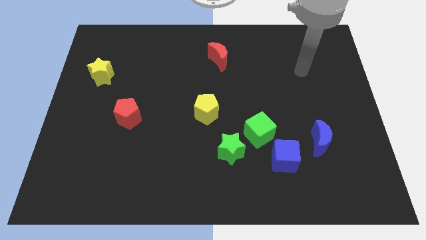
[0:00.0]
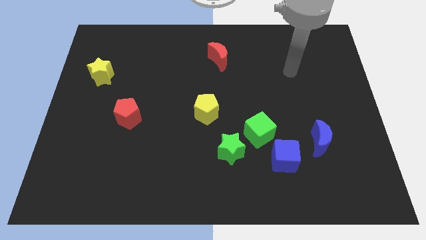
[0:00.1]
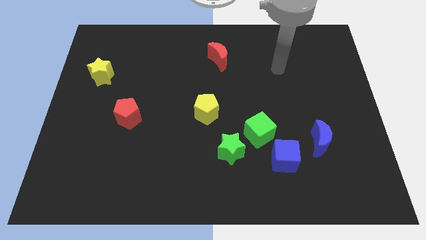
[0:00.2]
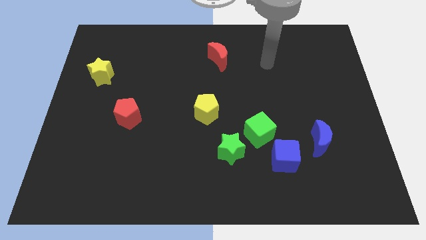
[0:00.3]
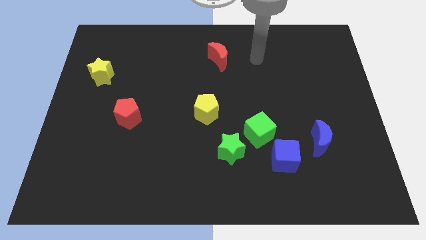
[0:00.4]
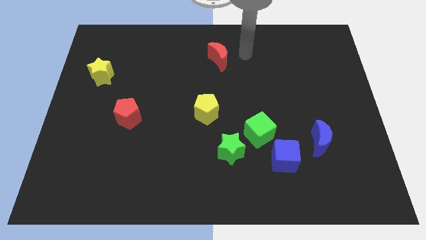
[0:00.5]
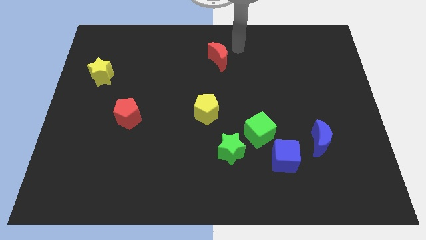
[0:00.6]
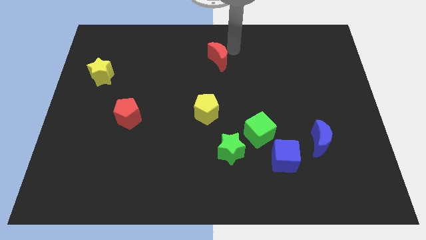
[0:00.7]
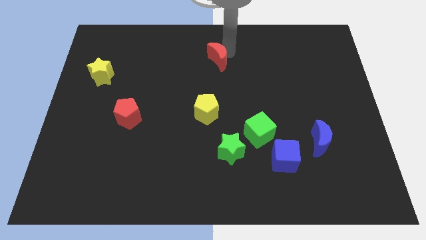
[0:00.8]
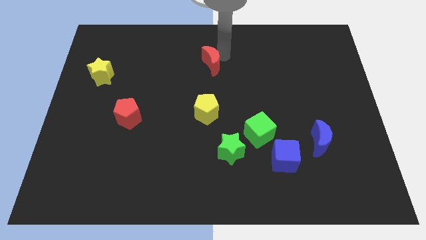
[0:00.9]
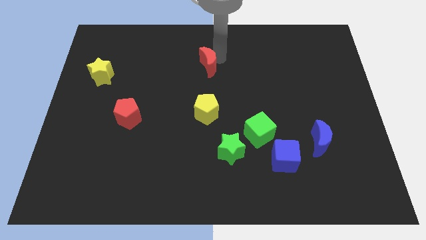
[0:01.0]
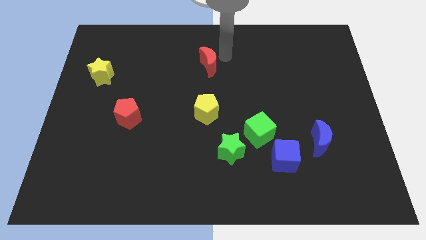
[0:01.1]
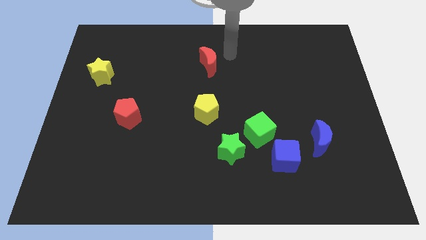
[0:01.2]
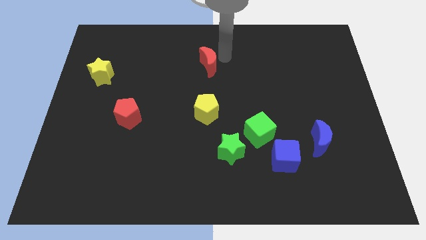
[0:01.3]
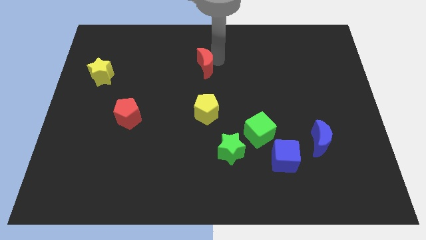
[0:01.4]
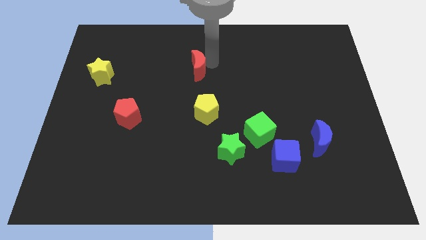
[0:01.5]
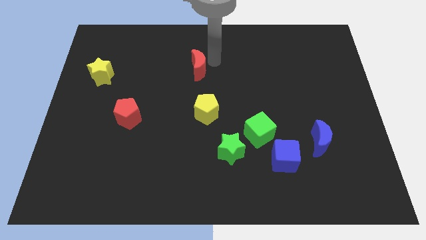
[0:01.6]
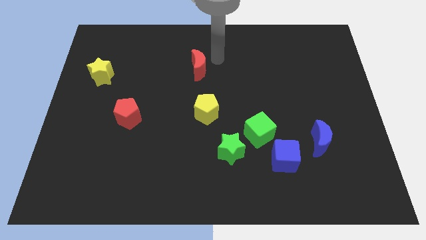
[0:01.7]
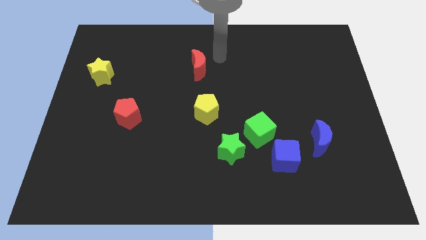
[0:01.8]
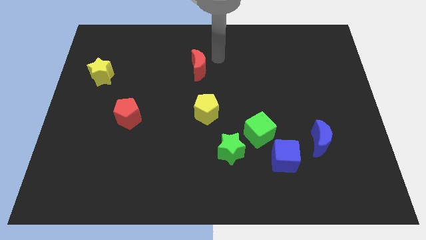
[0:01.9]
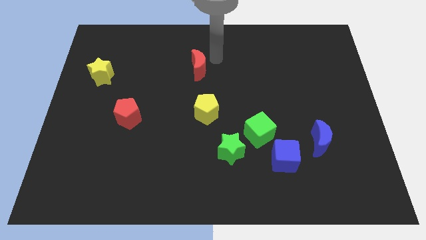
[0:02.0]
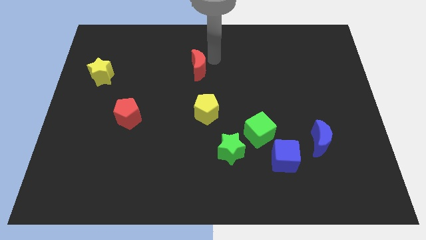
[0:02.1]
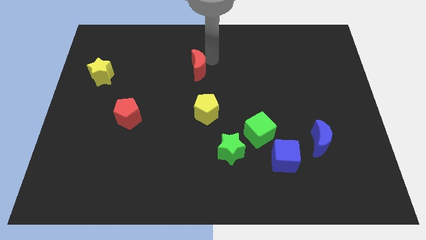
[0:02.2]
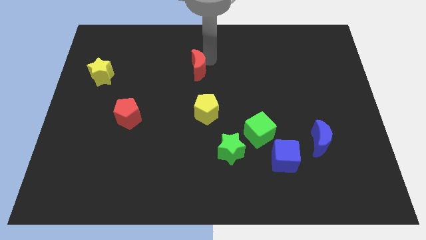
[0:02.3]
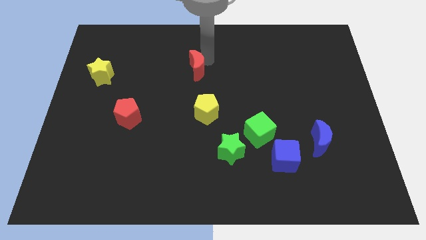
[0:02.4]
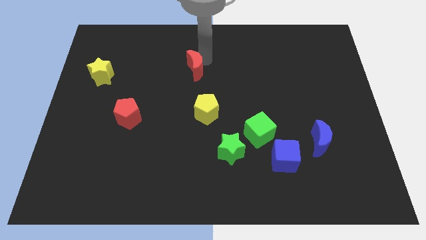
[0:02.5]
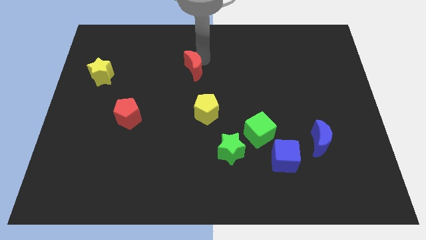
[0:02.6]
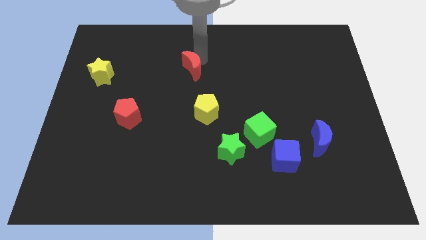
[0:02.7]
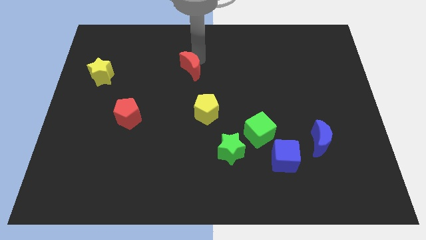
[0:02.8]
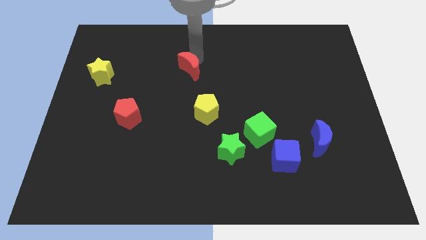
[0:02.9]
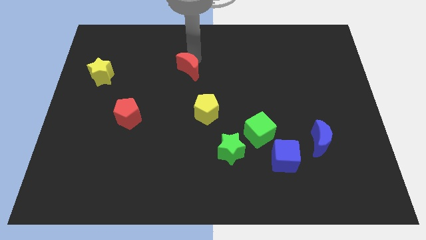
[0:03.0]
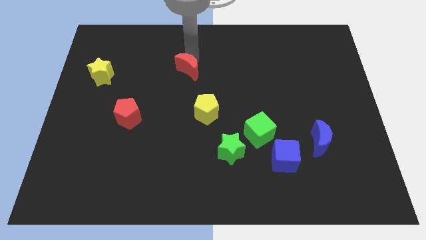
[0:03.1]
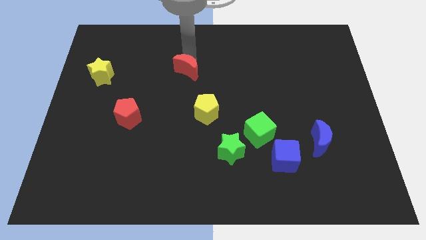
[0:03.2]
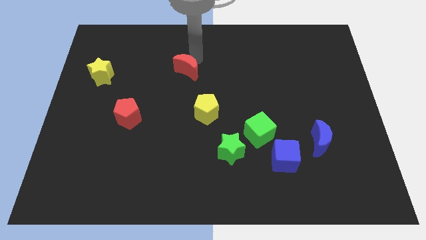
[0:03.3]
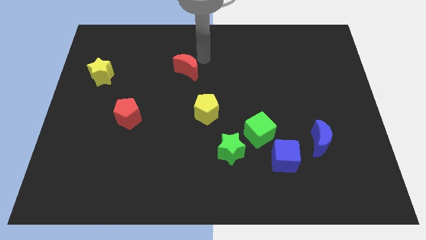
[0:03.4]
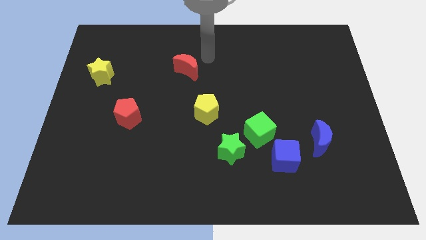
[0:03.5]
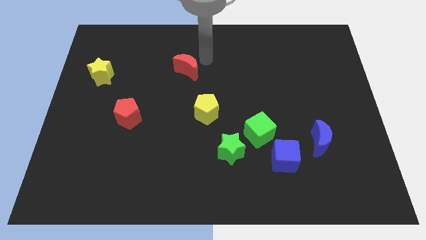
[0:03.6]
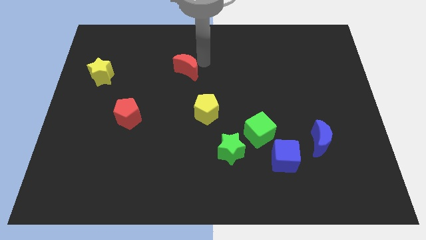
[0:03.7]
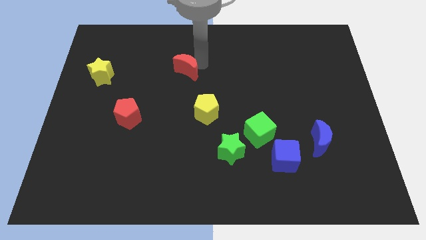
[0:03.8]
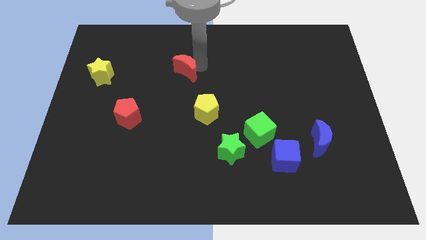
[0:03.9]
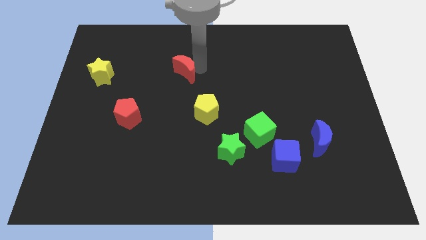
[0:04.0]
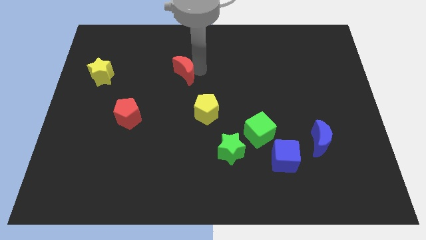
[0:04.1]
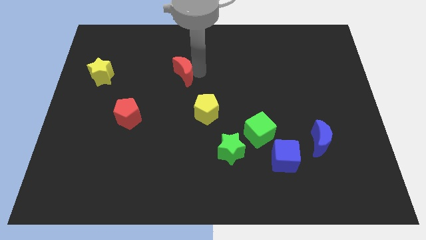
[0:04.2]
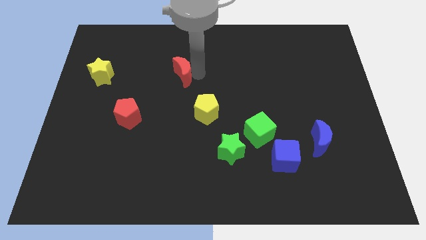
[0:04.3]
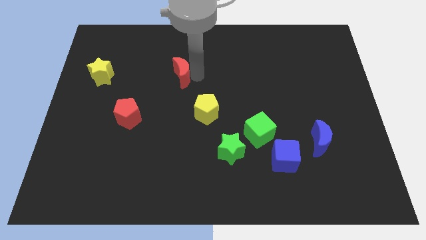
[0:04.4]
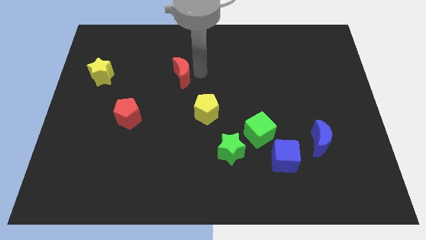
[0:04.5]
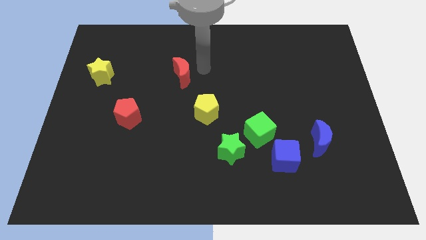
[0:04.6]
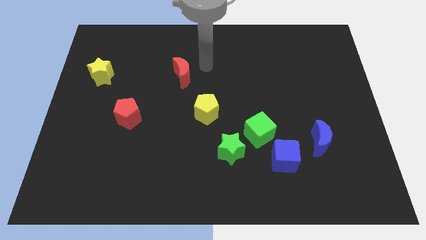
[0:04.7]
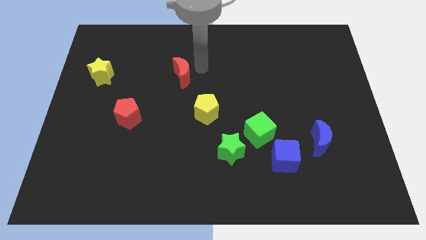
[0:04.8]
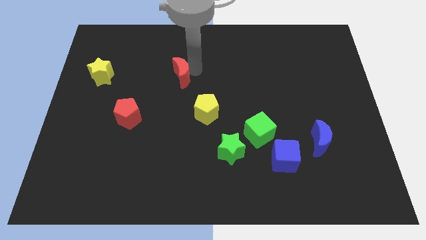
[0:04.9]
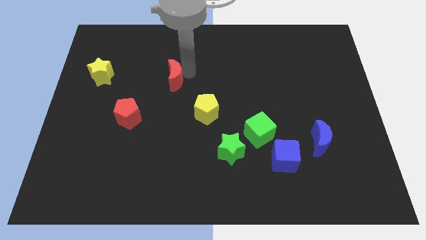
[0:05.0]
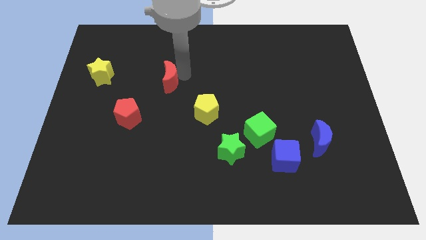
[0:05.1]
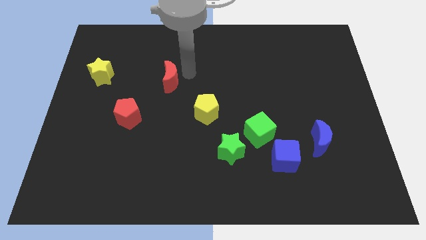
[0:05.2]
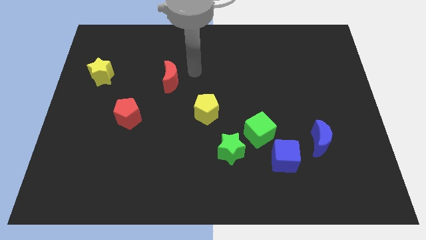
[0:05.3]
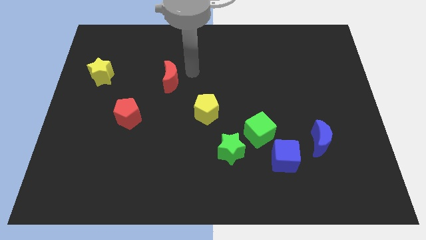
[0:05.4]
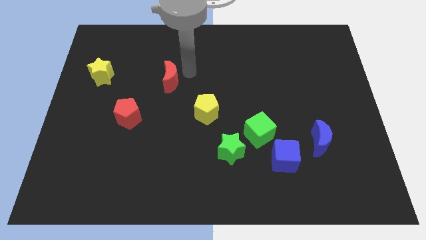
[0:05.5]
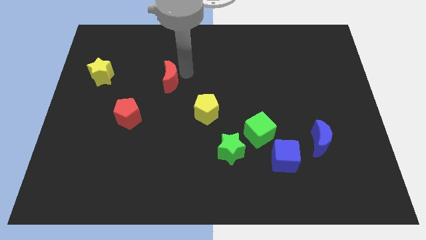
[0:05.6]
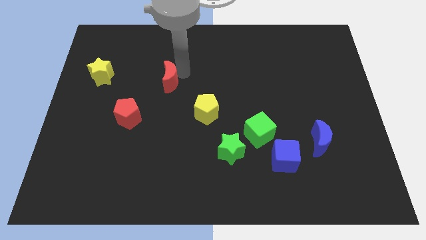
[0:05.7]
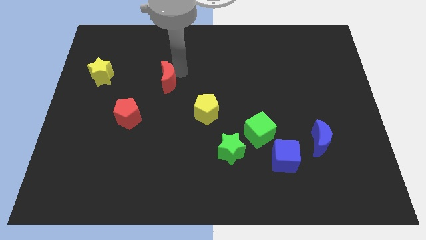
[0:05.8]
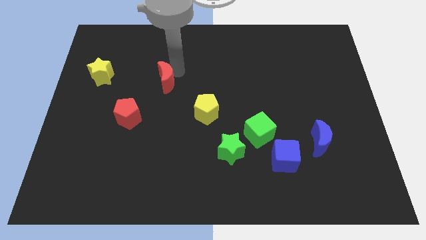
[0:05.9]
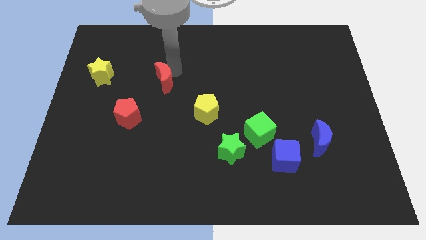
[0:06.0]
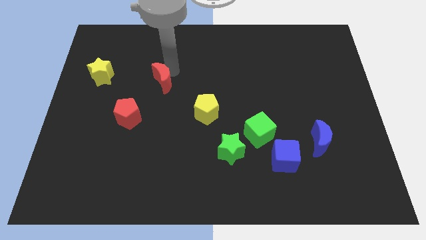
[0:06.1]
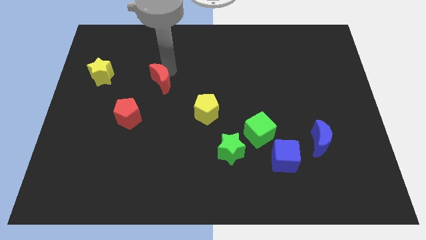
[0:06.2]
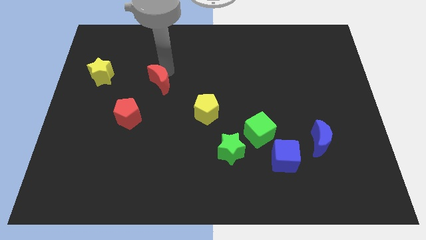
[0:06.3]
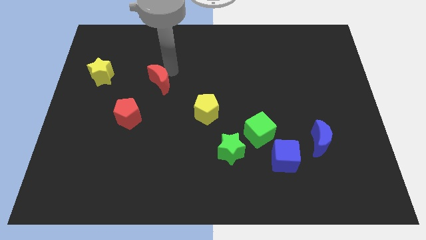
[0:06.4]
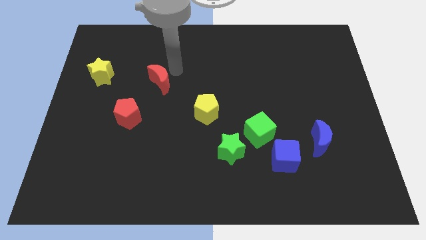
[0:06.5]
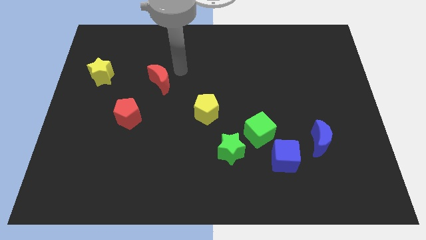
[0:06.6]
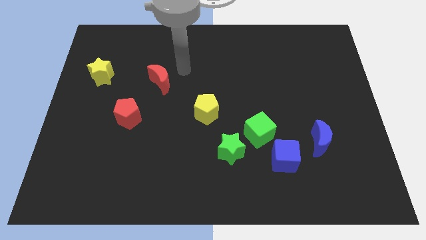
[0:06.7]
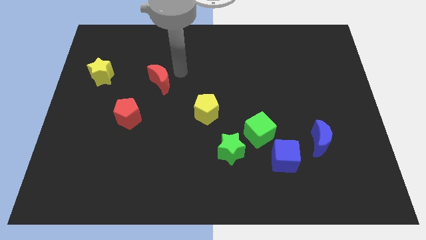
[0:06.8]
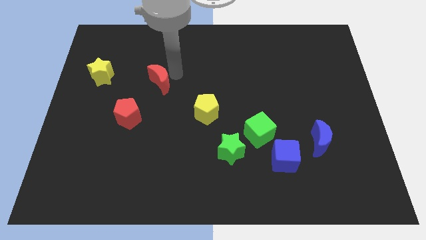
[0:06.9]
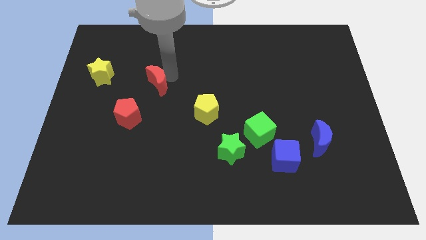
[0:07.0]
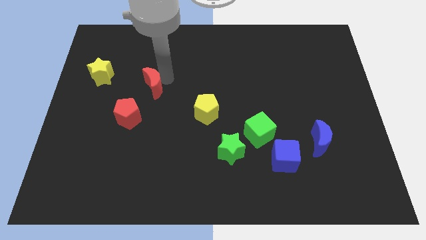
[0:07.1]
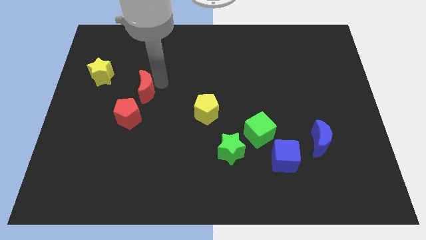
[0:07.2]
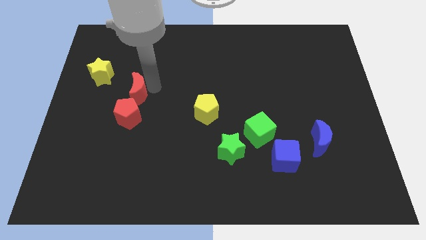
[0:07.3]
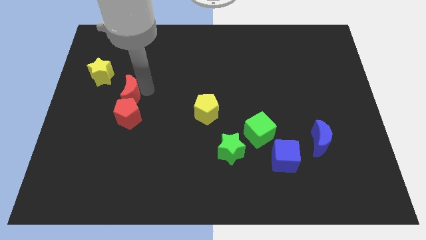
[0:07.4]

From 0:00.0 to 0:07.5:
push the red moon to the top left side of the red pentagon

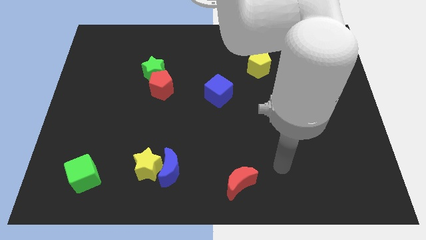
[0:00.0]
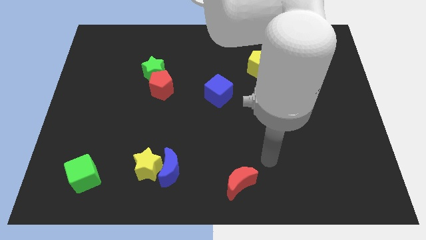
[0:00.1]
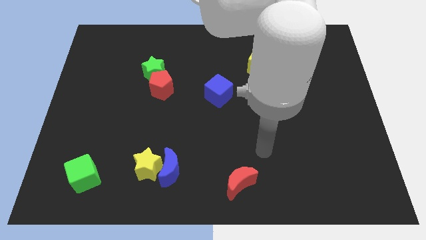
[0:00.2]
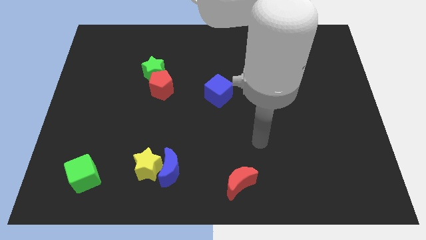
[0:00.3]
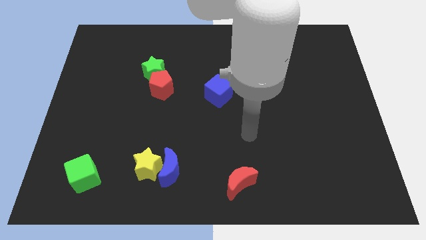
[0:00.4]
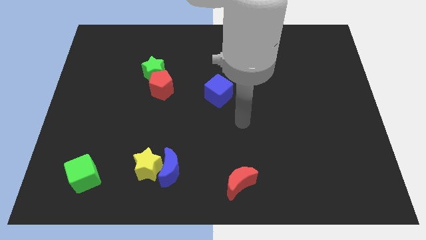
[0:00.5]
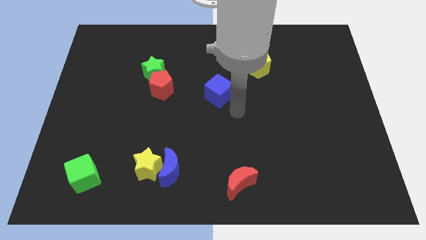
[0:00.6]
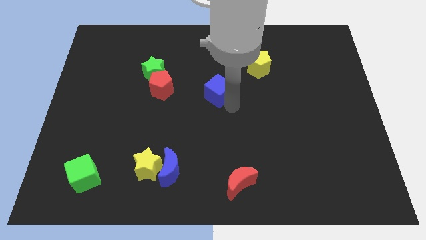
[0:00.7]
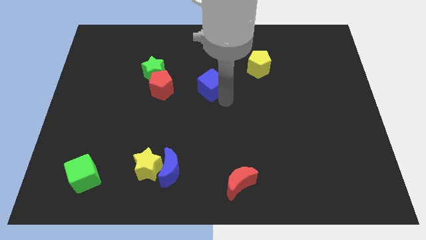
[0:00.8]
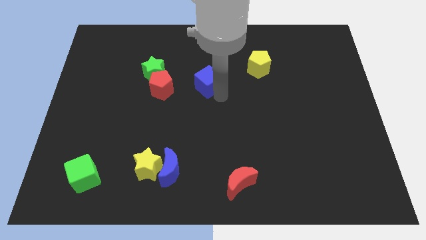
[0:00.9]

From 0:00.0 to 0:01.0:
move the blue cube to the right of the green star
